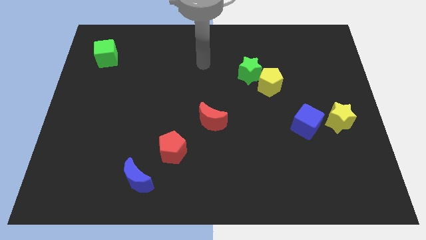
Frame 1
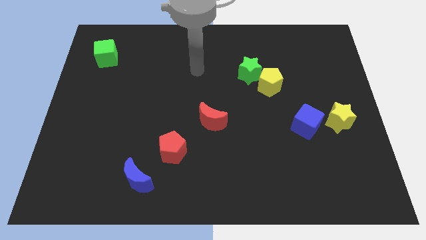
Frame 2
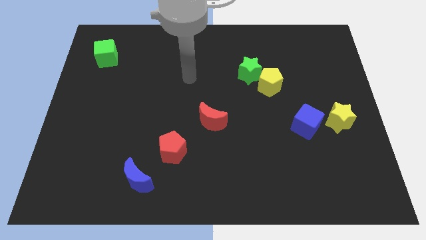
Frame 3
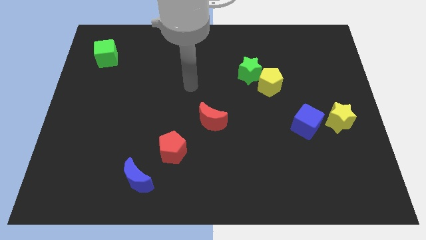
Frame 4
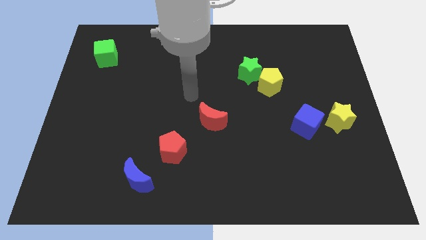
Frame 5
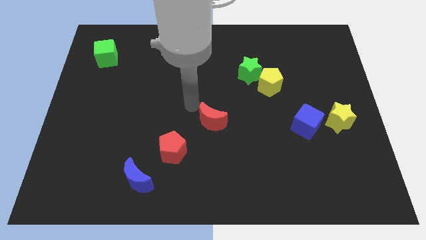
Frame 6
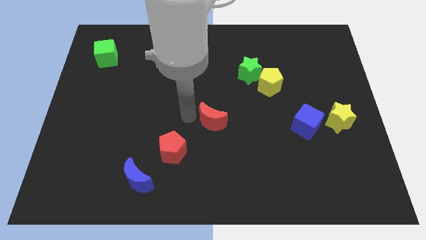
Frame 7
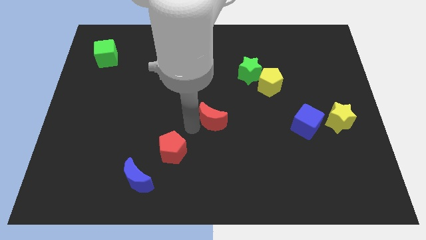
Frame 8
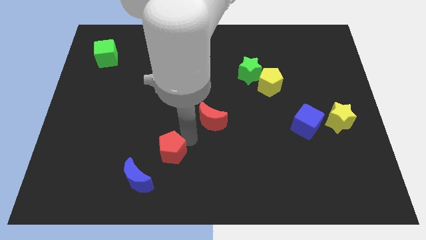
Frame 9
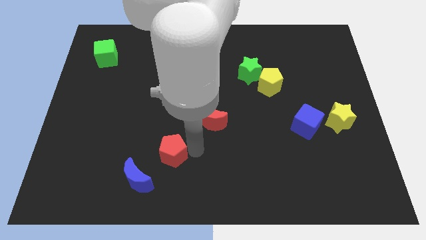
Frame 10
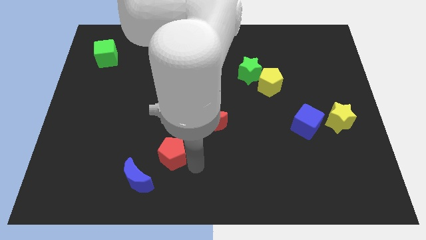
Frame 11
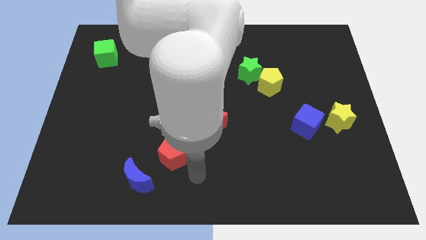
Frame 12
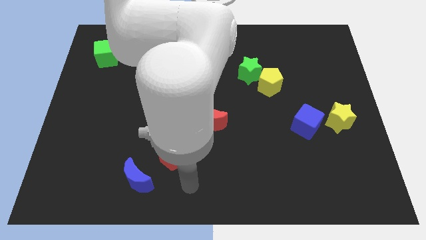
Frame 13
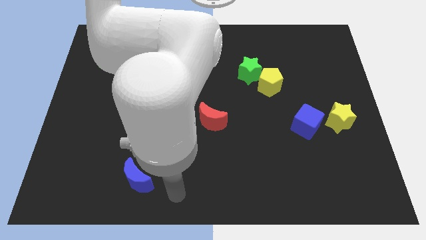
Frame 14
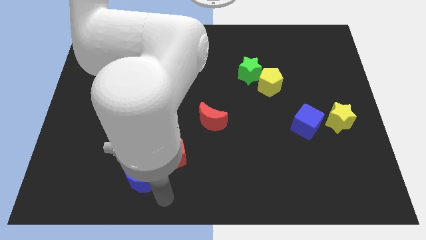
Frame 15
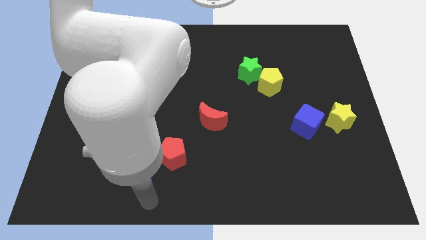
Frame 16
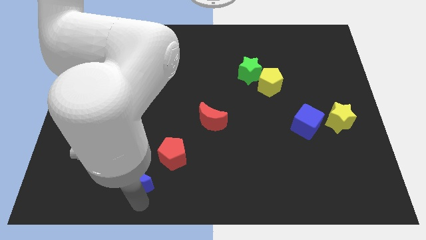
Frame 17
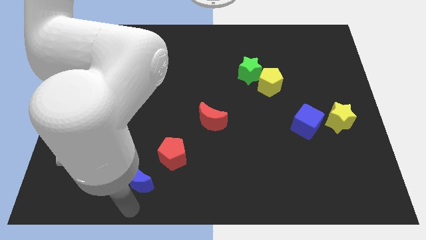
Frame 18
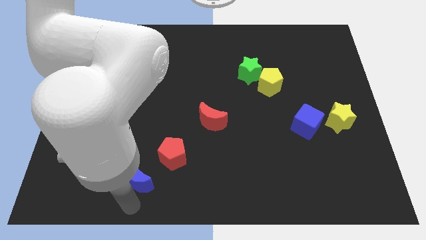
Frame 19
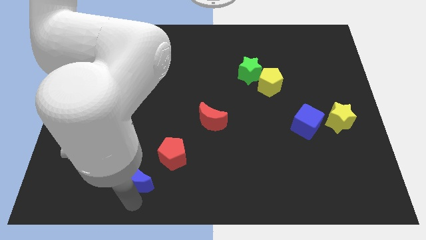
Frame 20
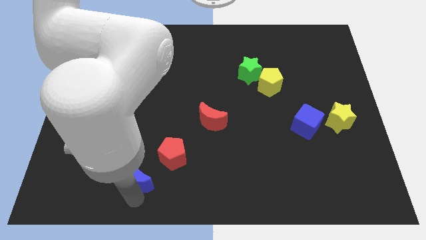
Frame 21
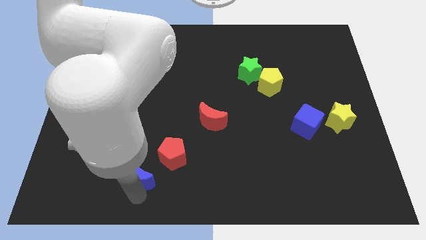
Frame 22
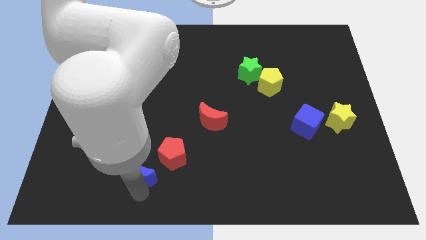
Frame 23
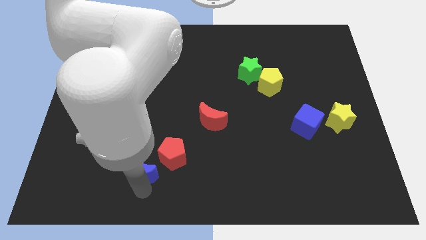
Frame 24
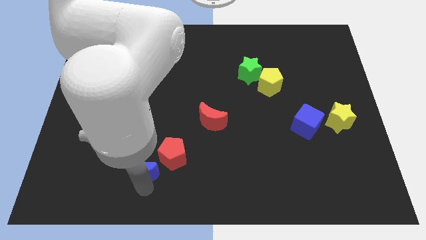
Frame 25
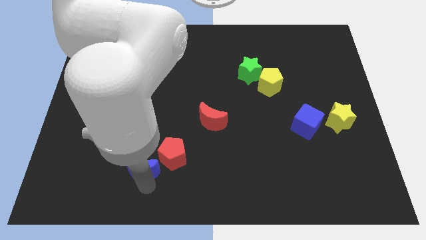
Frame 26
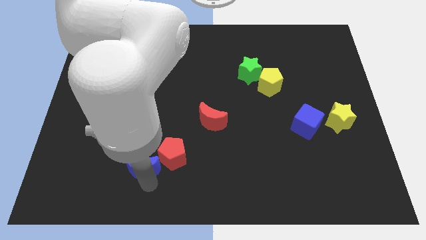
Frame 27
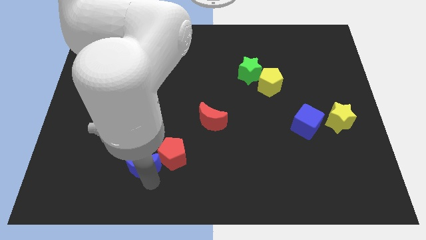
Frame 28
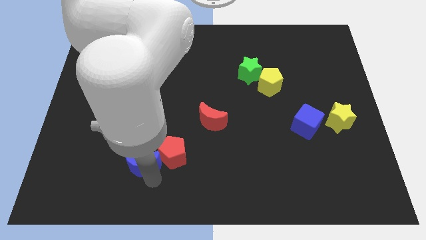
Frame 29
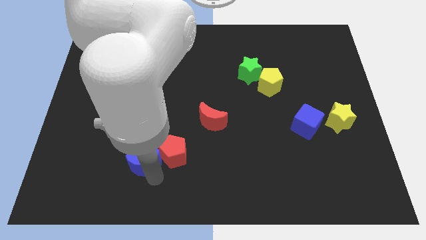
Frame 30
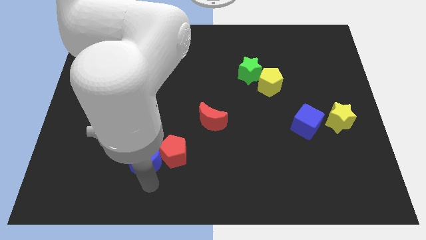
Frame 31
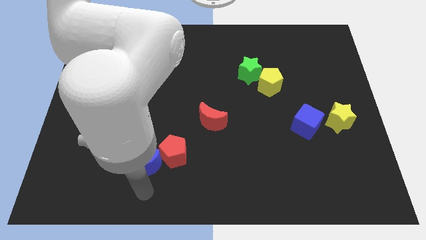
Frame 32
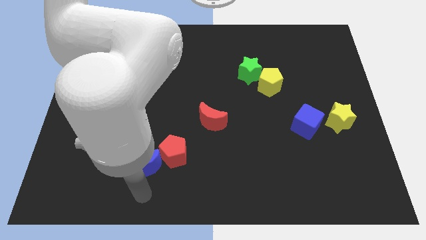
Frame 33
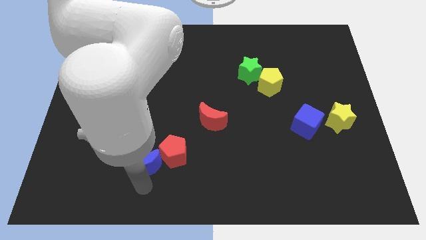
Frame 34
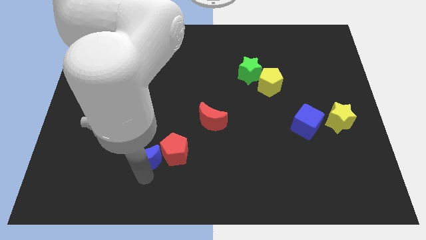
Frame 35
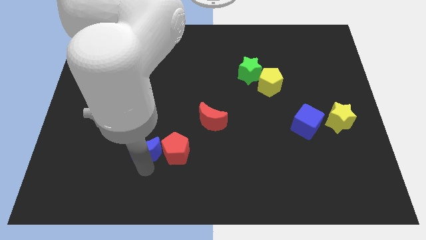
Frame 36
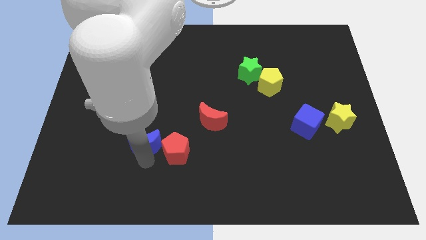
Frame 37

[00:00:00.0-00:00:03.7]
slightly push the blue moon up

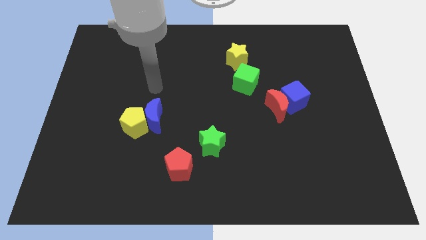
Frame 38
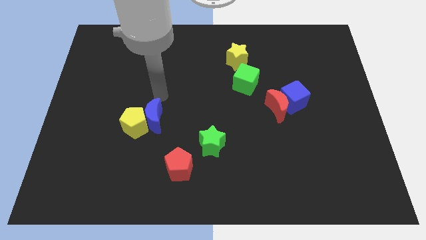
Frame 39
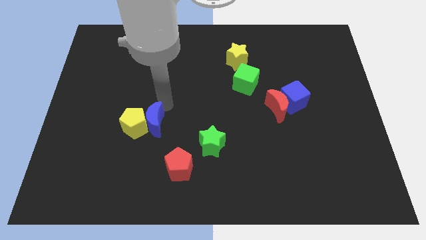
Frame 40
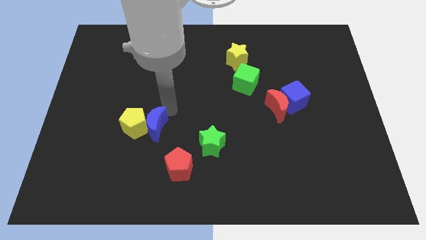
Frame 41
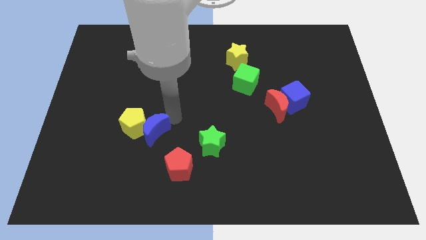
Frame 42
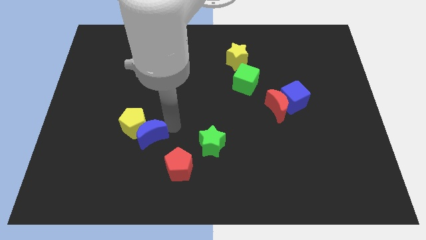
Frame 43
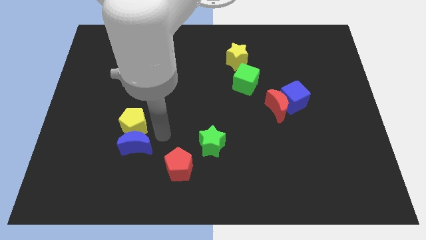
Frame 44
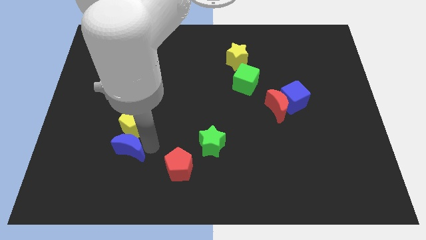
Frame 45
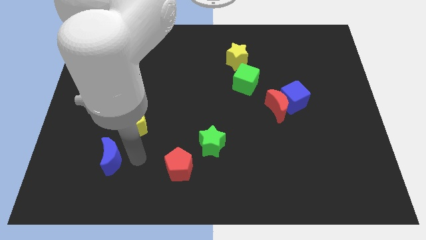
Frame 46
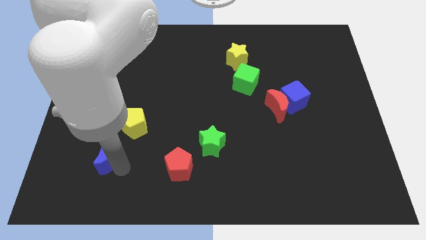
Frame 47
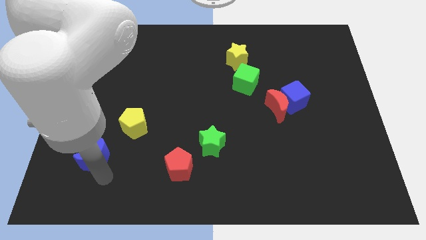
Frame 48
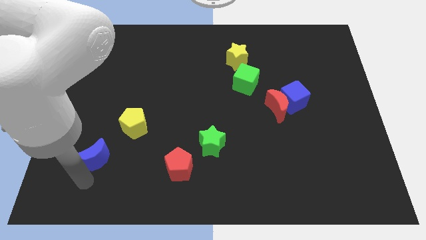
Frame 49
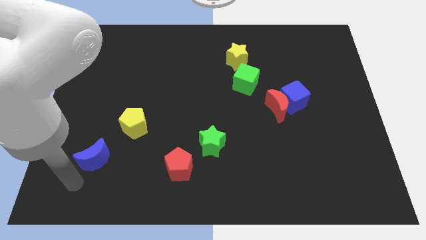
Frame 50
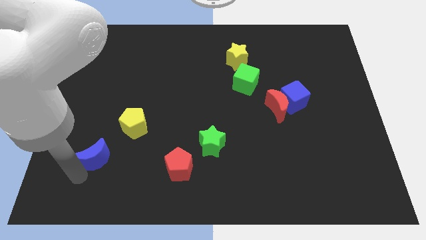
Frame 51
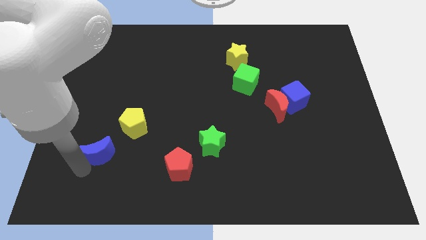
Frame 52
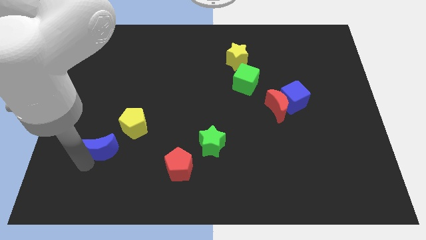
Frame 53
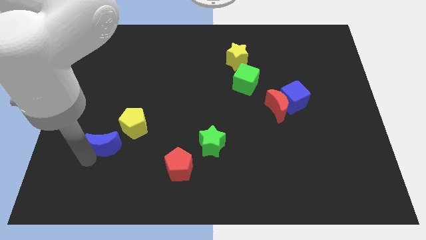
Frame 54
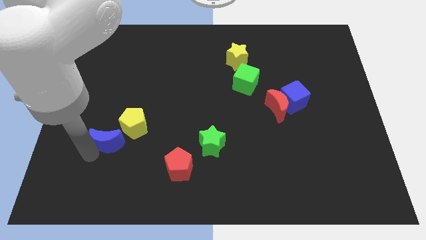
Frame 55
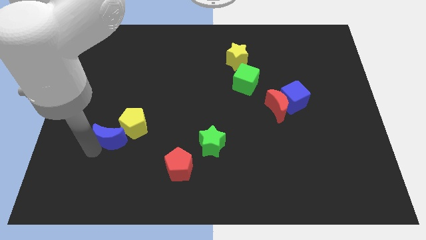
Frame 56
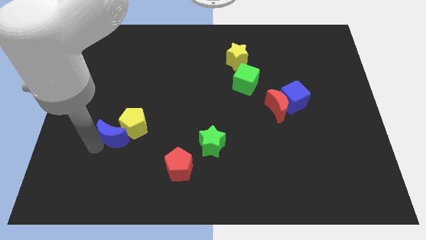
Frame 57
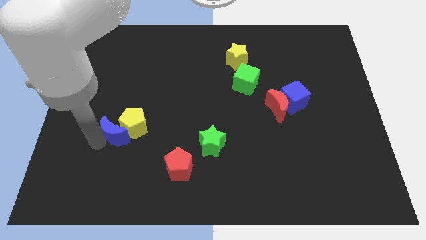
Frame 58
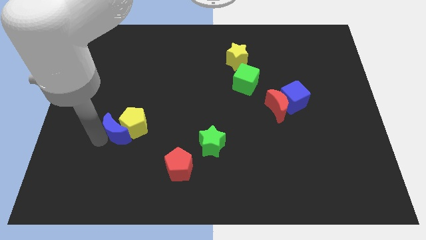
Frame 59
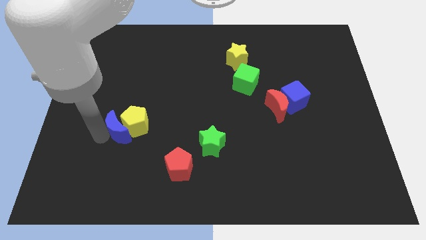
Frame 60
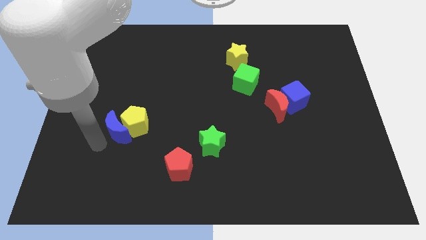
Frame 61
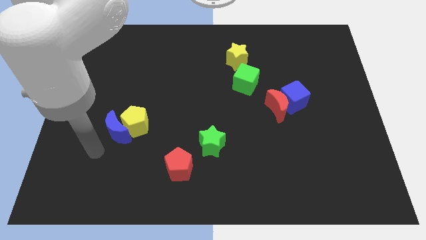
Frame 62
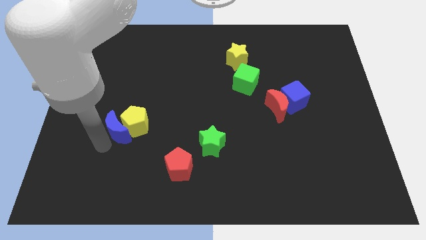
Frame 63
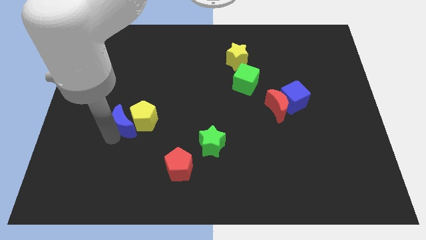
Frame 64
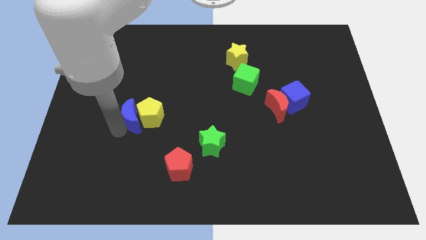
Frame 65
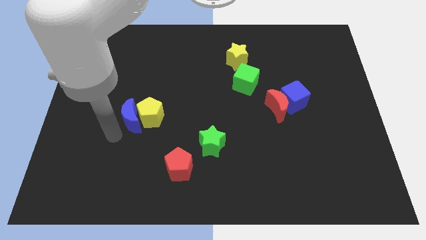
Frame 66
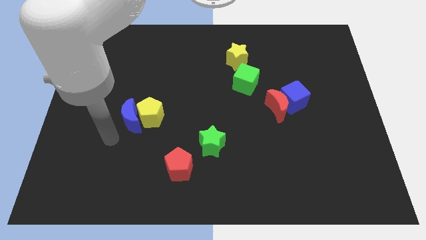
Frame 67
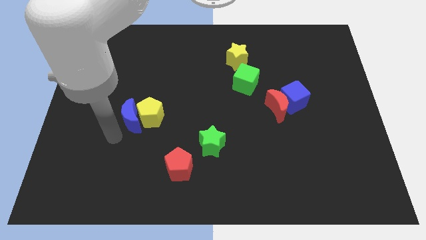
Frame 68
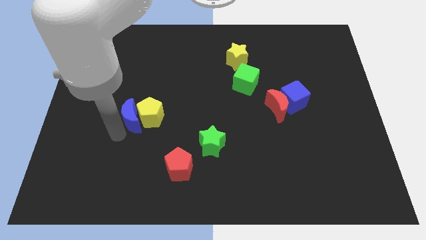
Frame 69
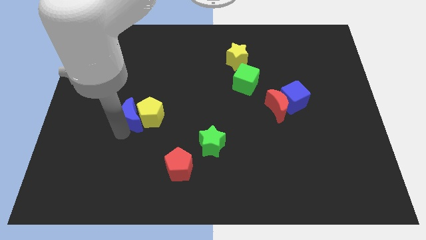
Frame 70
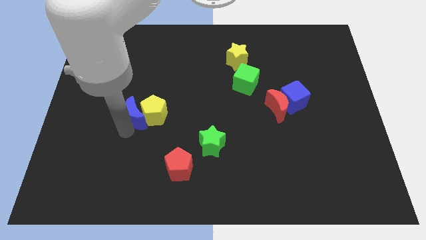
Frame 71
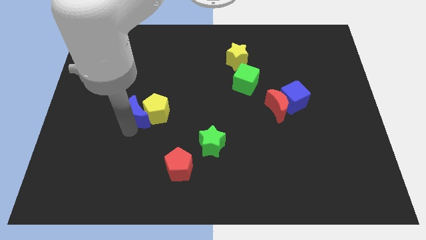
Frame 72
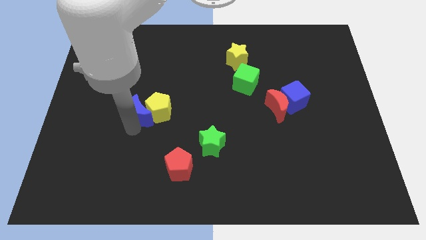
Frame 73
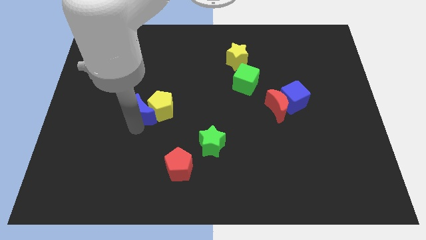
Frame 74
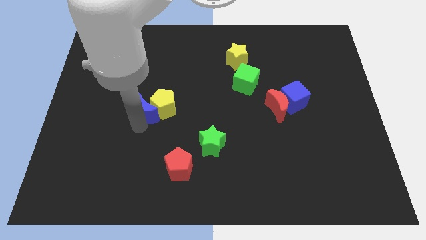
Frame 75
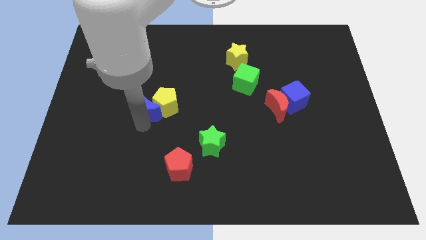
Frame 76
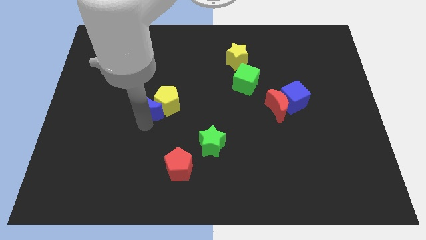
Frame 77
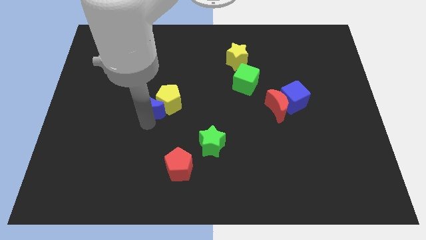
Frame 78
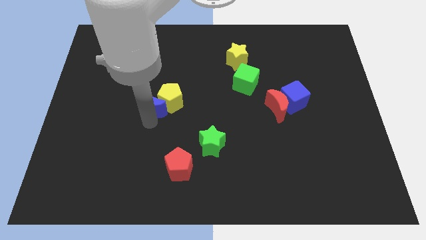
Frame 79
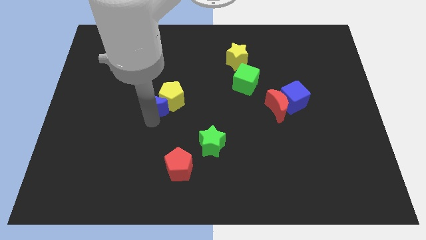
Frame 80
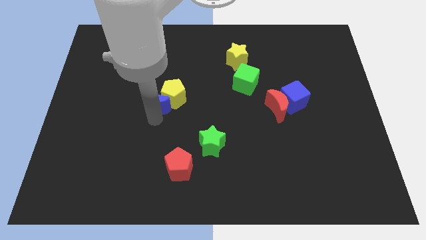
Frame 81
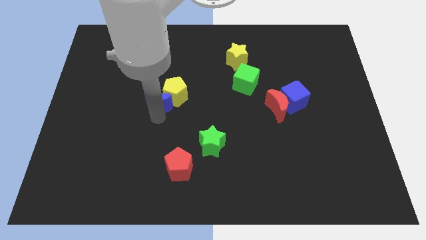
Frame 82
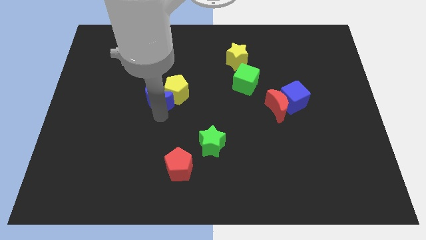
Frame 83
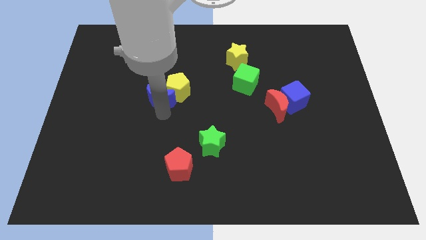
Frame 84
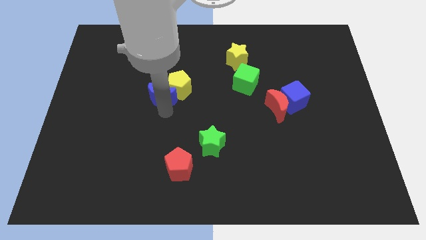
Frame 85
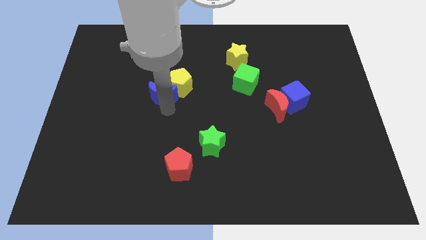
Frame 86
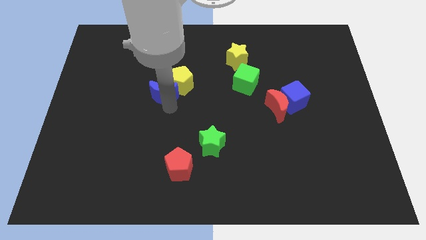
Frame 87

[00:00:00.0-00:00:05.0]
slightly move the blue moon up
